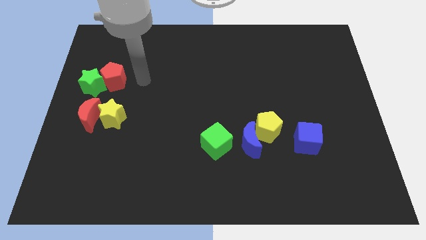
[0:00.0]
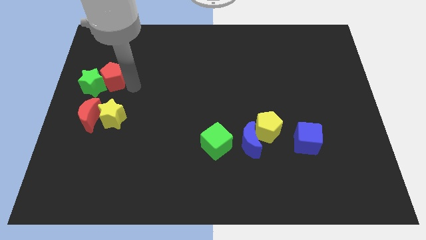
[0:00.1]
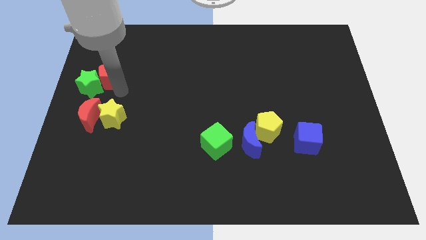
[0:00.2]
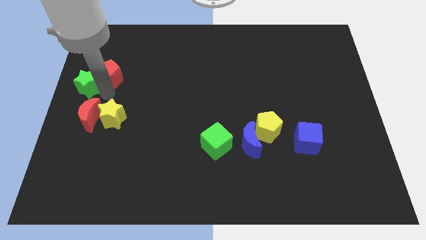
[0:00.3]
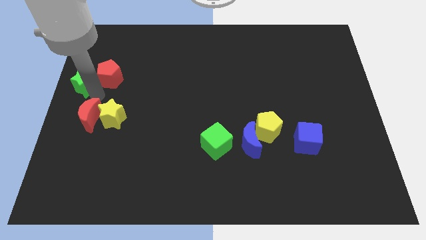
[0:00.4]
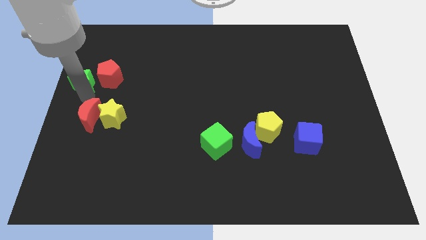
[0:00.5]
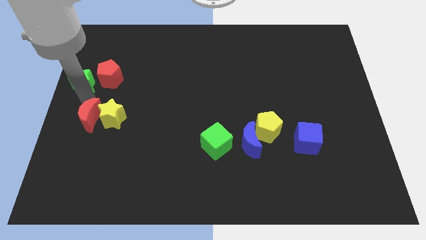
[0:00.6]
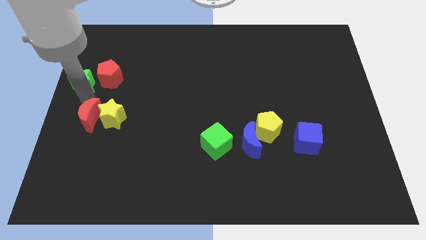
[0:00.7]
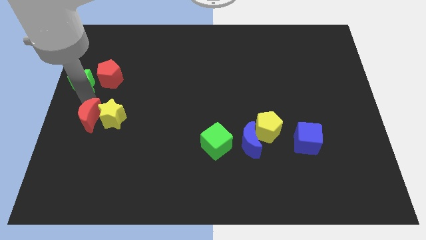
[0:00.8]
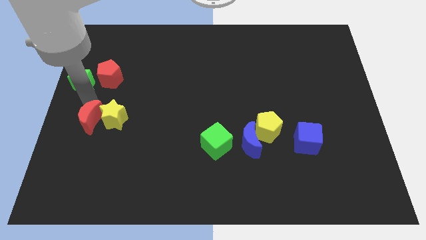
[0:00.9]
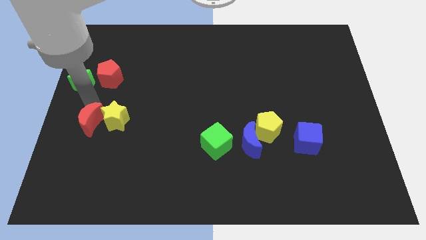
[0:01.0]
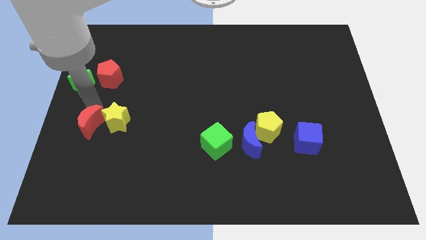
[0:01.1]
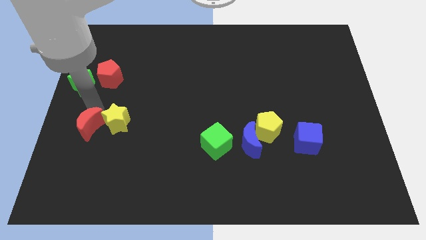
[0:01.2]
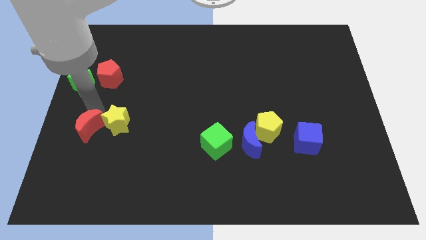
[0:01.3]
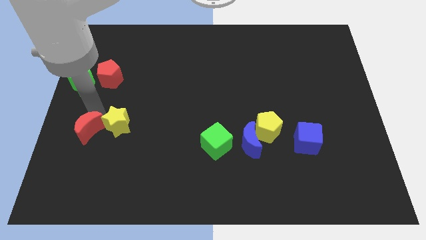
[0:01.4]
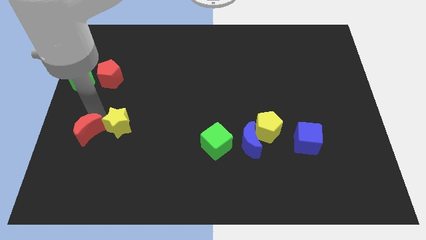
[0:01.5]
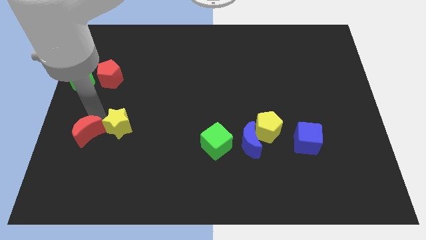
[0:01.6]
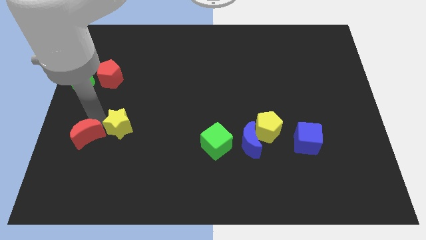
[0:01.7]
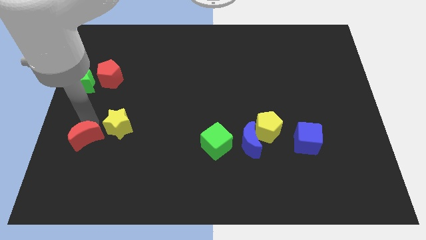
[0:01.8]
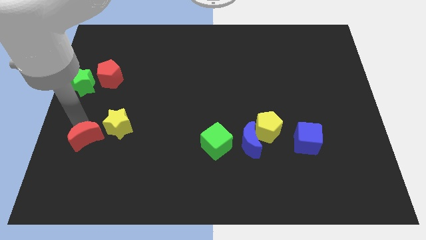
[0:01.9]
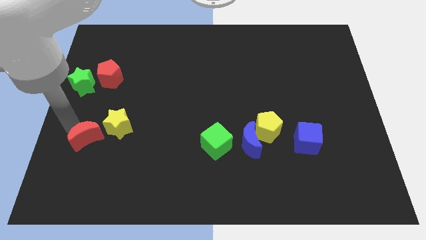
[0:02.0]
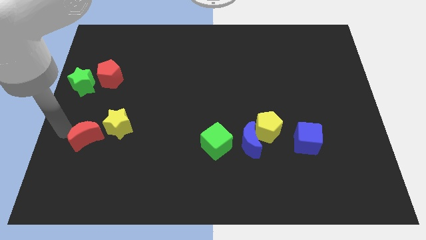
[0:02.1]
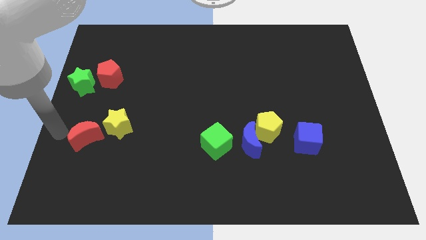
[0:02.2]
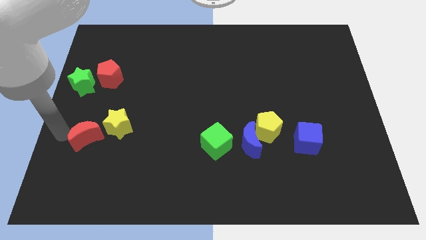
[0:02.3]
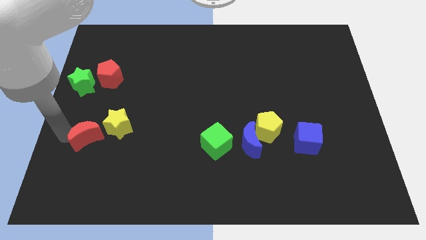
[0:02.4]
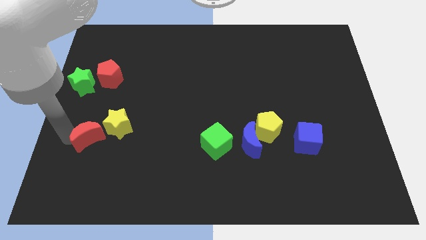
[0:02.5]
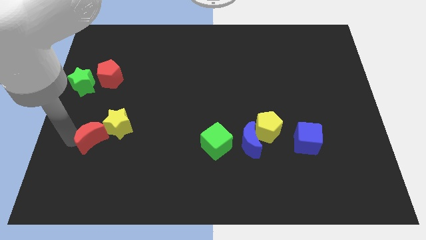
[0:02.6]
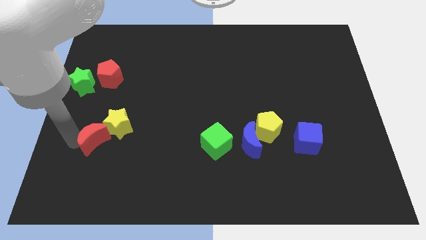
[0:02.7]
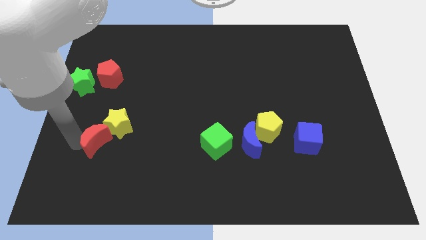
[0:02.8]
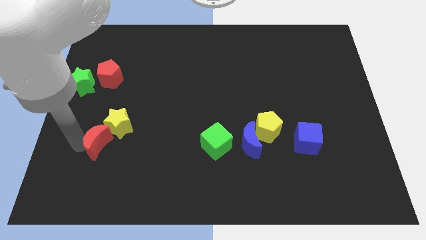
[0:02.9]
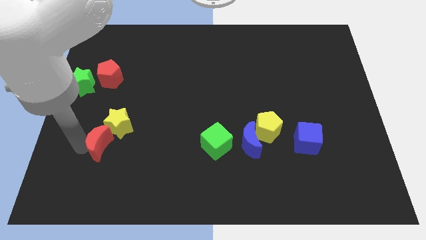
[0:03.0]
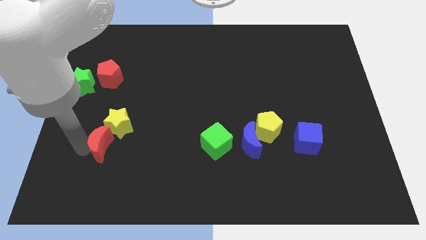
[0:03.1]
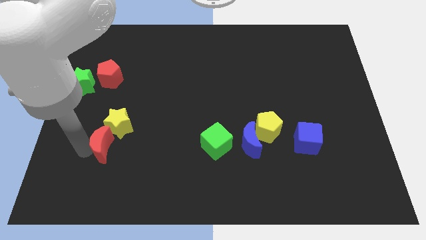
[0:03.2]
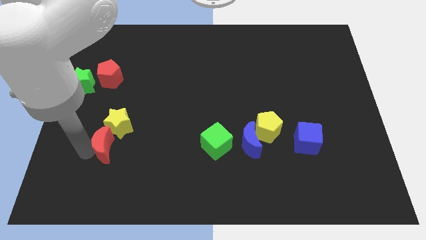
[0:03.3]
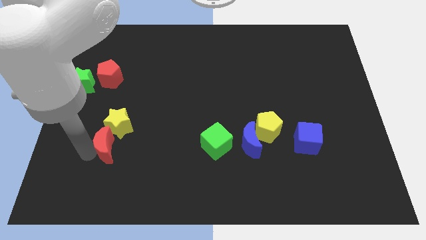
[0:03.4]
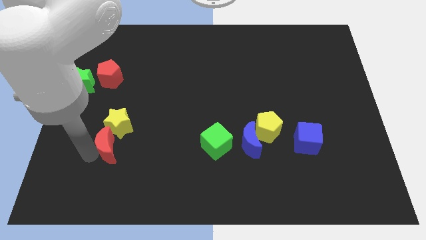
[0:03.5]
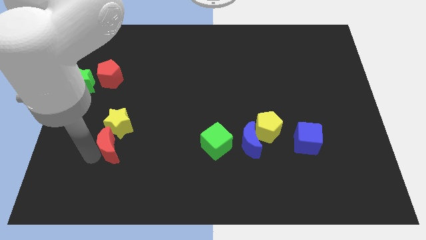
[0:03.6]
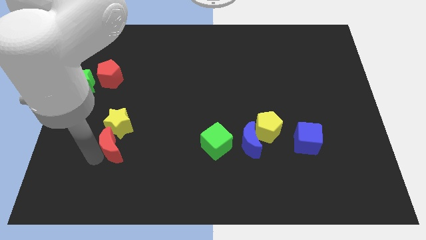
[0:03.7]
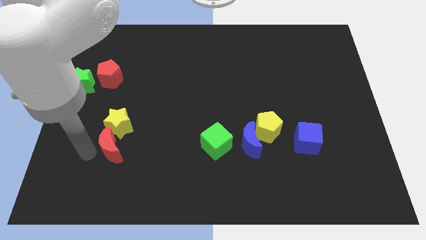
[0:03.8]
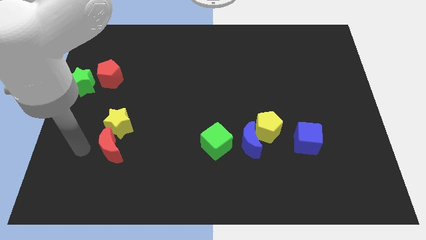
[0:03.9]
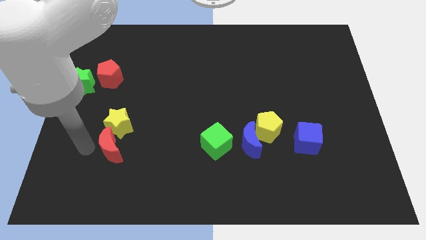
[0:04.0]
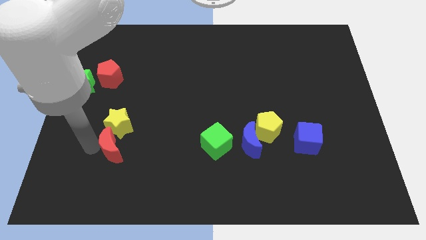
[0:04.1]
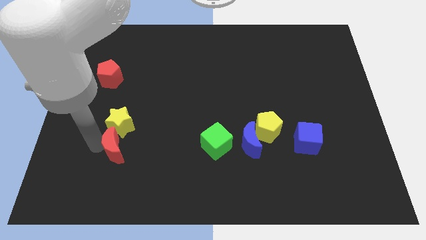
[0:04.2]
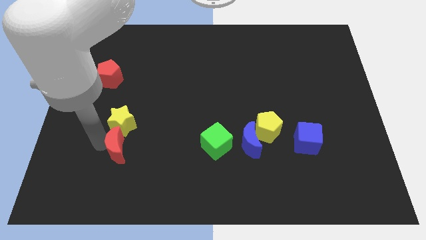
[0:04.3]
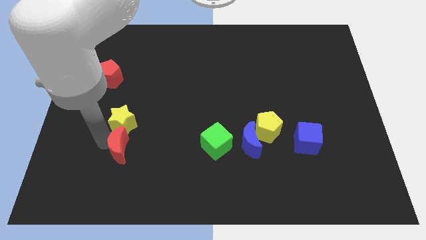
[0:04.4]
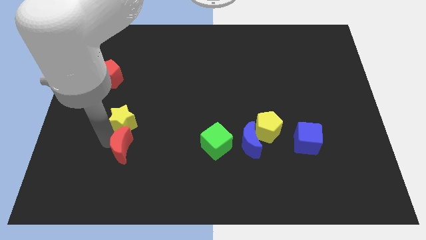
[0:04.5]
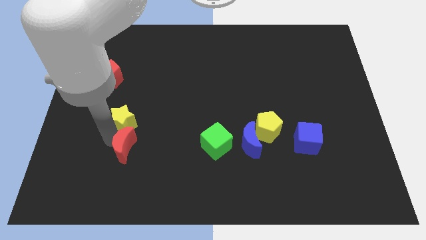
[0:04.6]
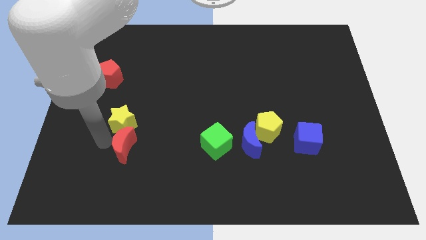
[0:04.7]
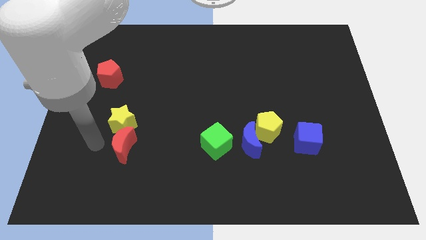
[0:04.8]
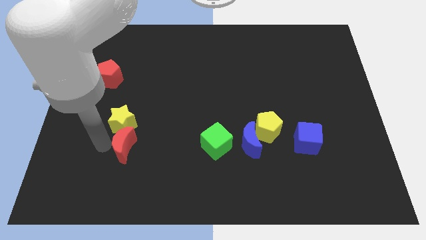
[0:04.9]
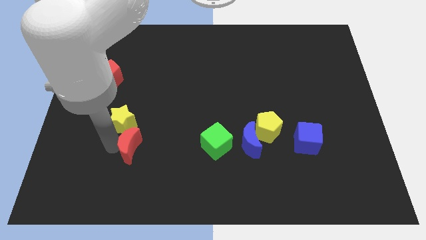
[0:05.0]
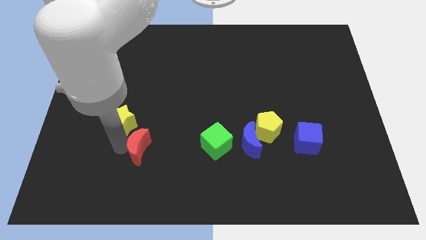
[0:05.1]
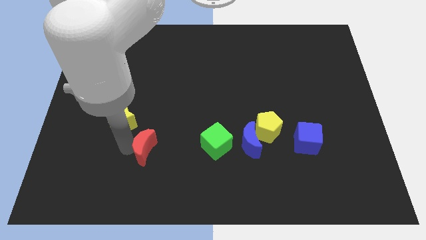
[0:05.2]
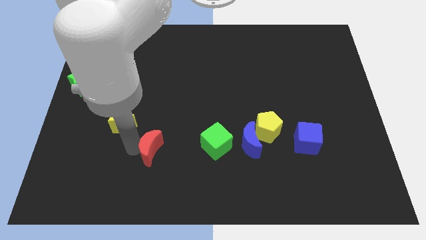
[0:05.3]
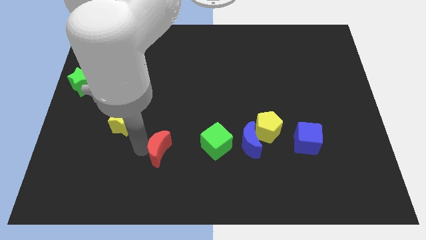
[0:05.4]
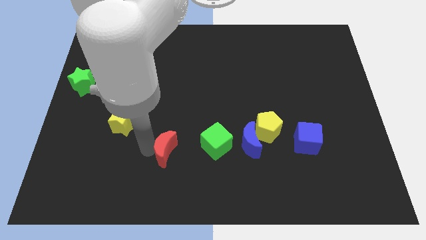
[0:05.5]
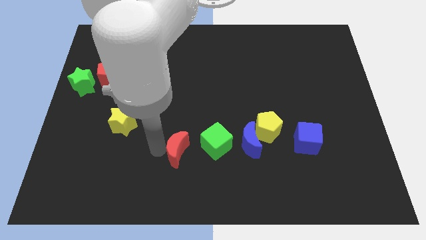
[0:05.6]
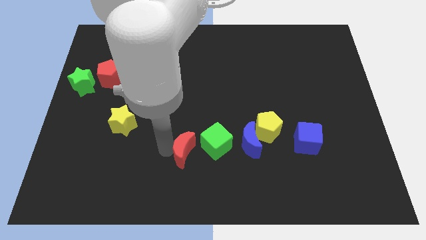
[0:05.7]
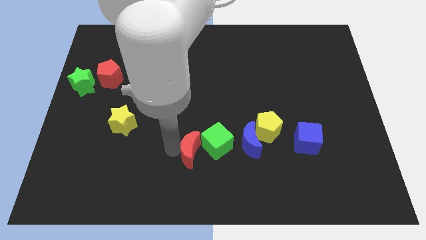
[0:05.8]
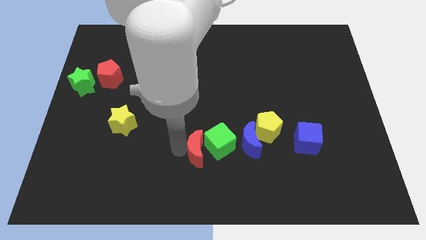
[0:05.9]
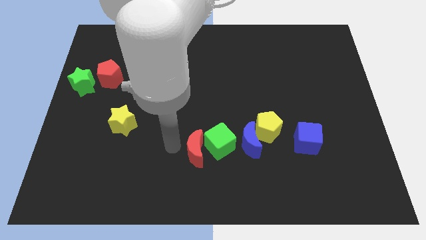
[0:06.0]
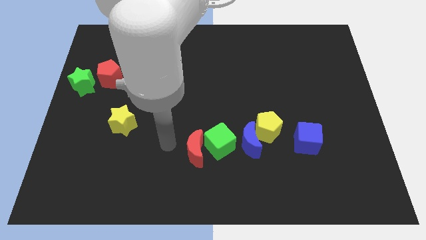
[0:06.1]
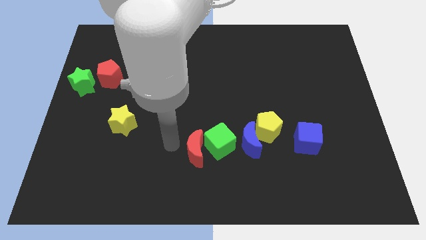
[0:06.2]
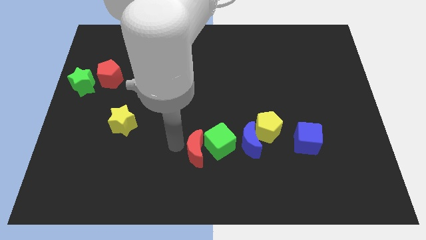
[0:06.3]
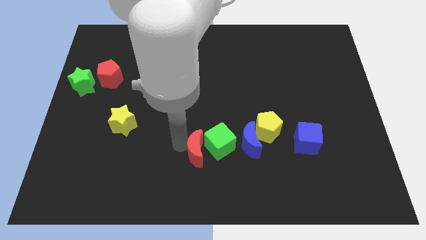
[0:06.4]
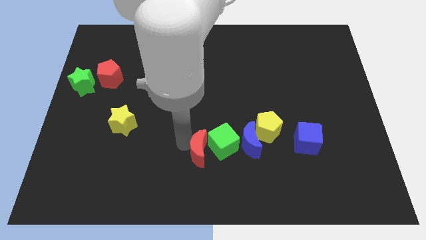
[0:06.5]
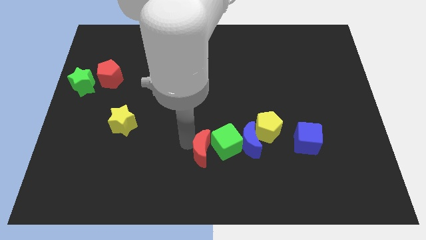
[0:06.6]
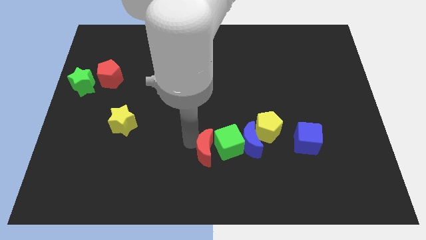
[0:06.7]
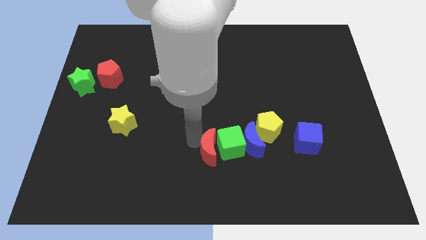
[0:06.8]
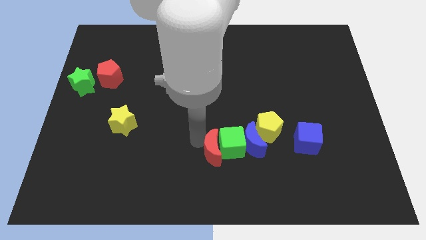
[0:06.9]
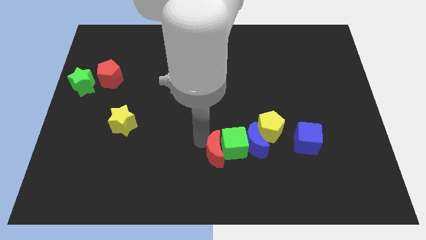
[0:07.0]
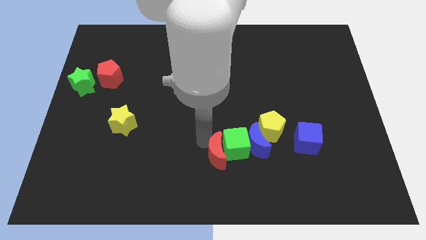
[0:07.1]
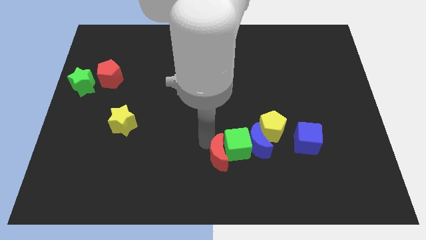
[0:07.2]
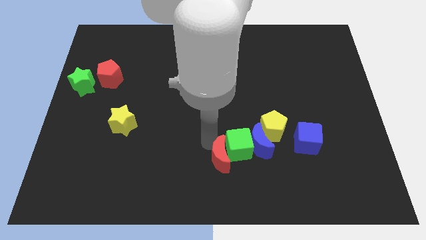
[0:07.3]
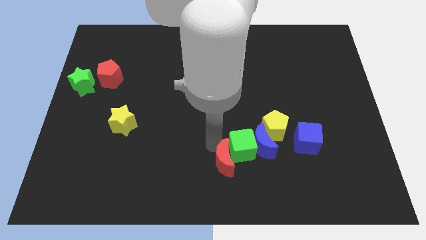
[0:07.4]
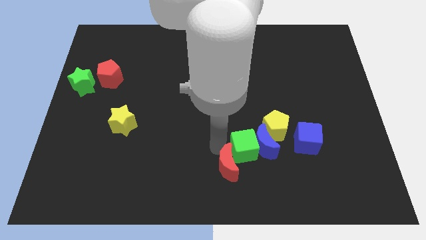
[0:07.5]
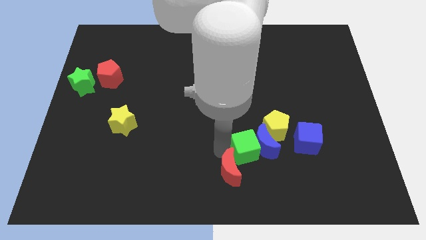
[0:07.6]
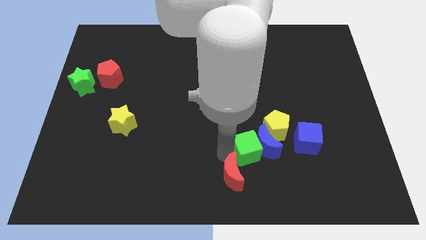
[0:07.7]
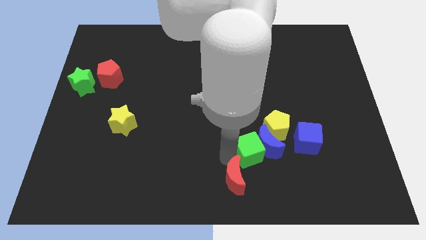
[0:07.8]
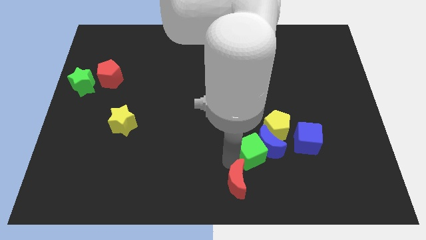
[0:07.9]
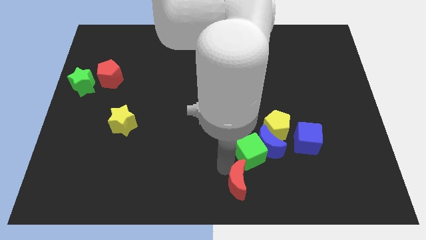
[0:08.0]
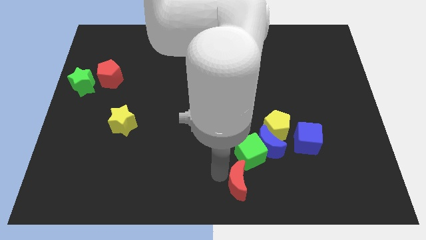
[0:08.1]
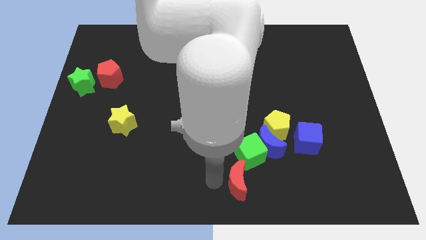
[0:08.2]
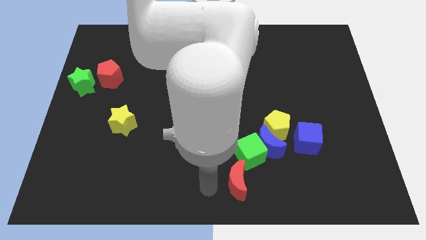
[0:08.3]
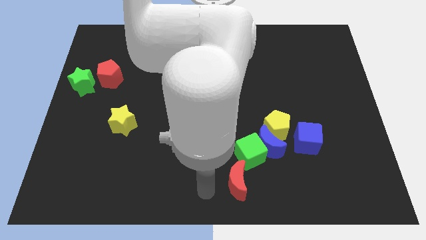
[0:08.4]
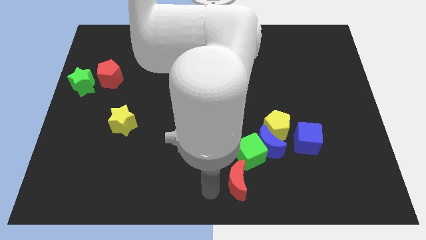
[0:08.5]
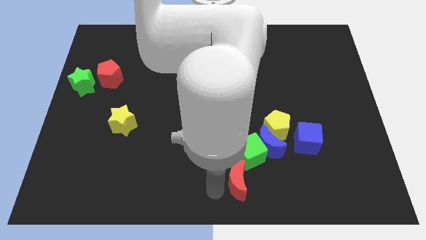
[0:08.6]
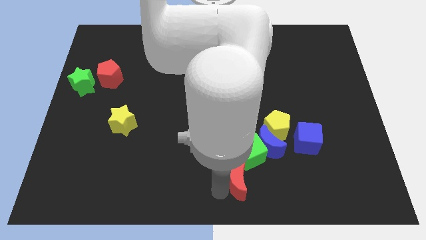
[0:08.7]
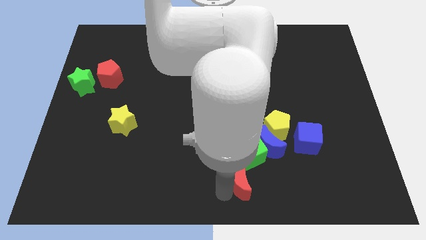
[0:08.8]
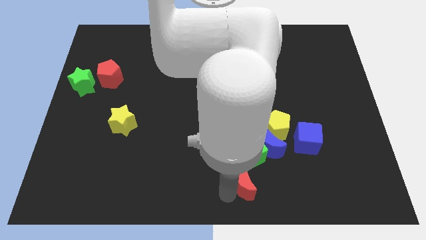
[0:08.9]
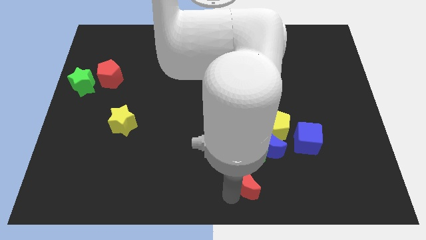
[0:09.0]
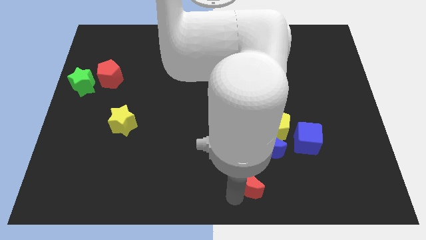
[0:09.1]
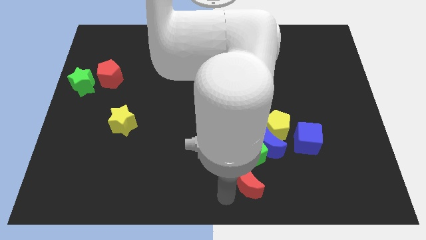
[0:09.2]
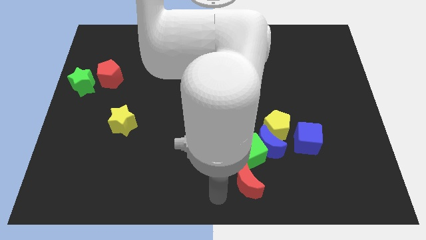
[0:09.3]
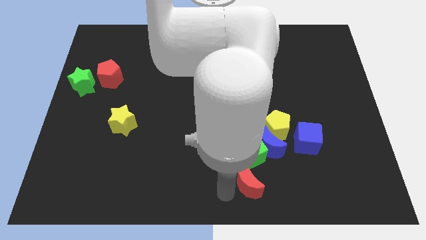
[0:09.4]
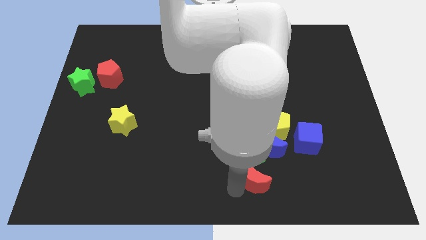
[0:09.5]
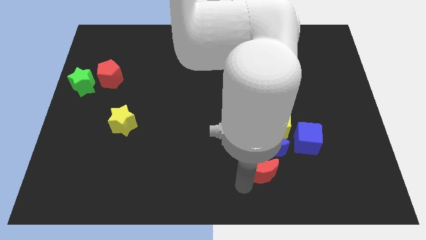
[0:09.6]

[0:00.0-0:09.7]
push the red moon to the bottom side of the yellow pentagon
